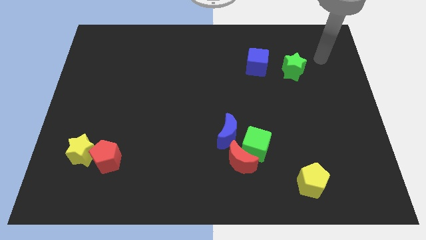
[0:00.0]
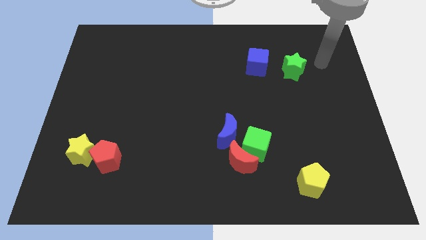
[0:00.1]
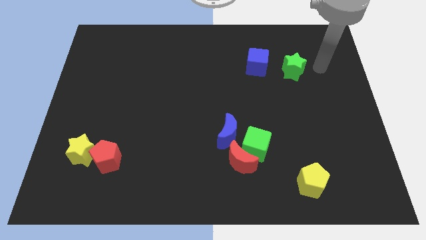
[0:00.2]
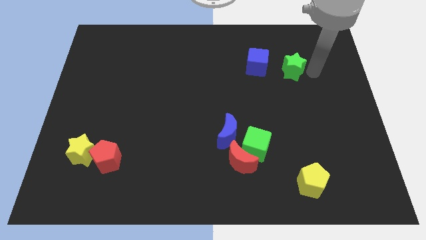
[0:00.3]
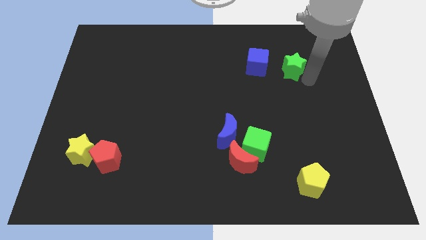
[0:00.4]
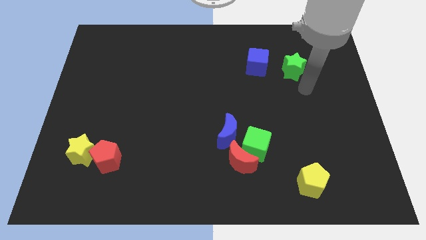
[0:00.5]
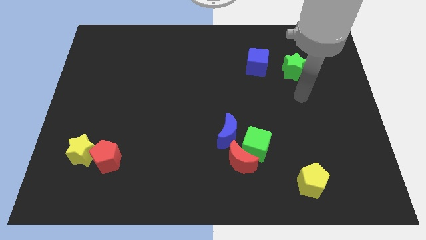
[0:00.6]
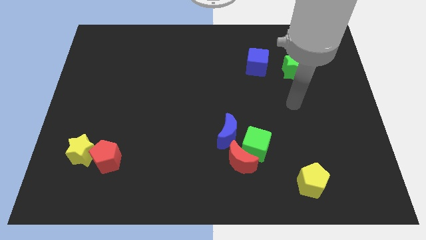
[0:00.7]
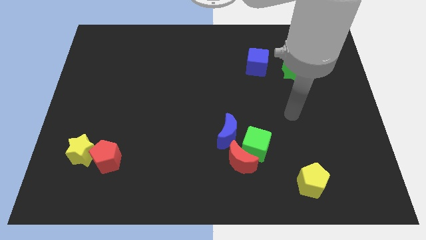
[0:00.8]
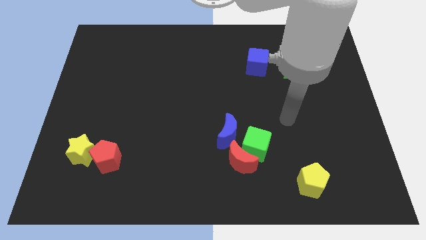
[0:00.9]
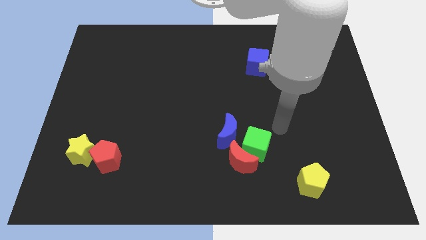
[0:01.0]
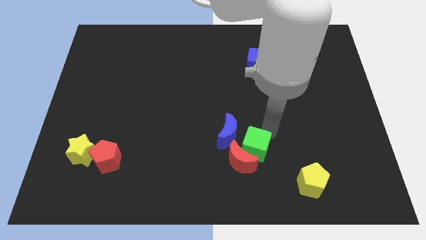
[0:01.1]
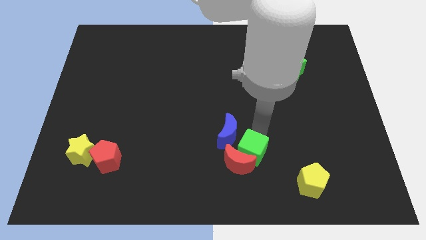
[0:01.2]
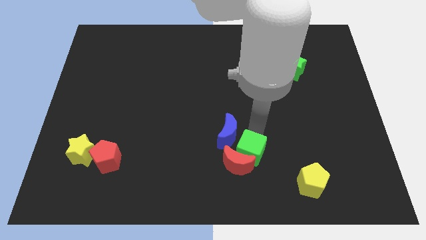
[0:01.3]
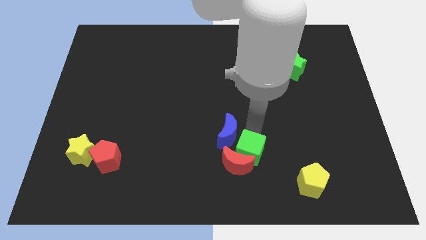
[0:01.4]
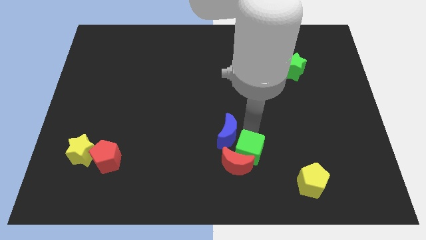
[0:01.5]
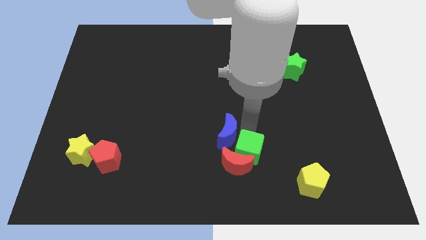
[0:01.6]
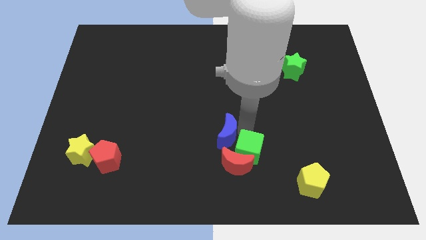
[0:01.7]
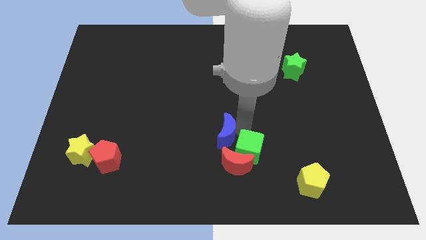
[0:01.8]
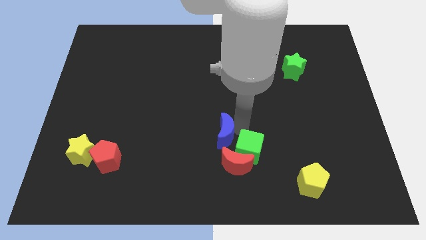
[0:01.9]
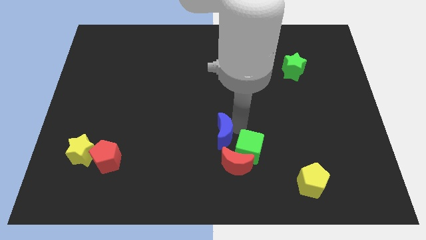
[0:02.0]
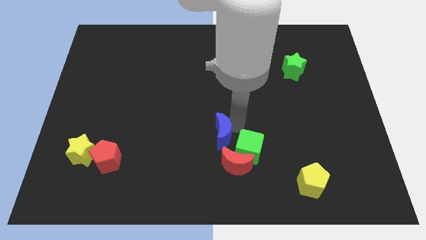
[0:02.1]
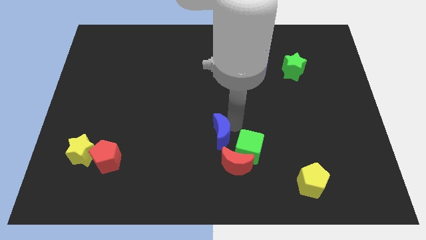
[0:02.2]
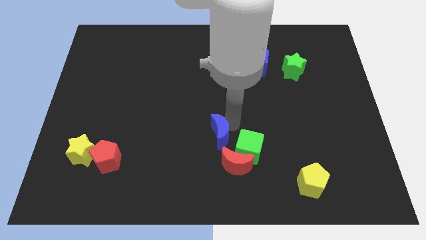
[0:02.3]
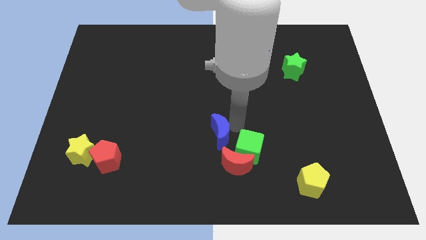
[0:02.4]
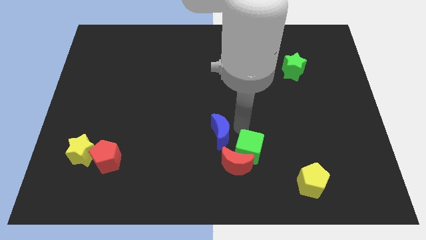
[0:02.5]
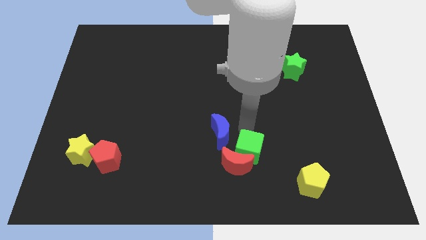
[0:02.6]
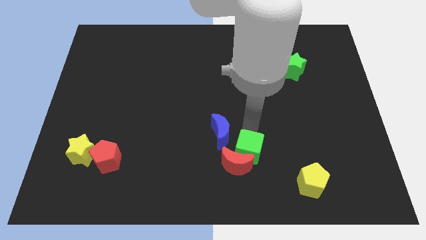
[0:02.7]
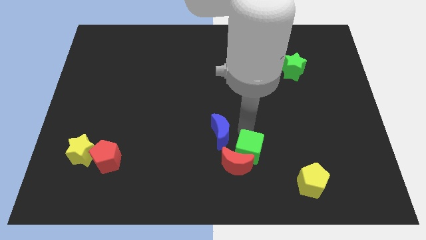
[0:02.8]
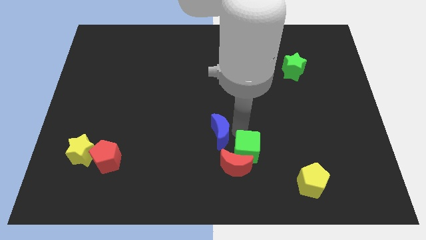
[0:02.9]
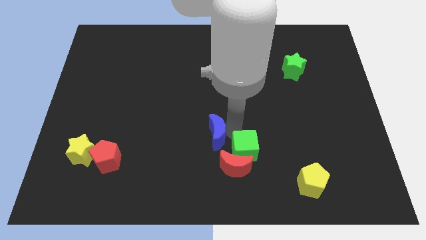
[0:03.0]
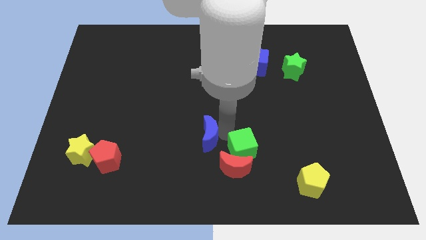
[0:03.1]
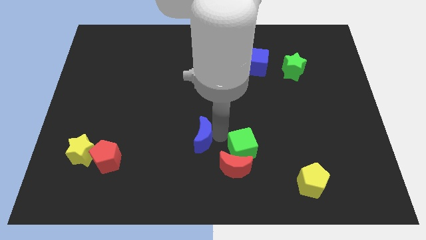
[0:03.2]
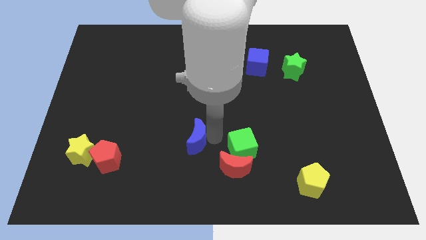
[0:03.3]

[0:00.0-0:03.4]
push the blue moon to the left a little

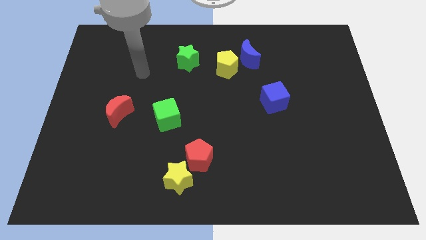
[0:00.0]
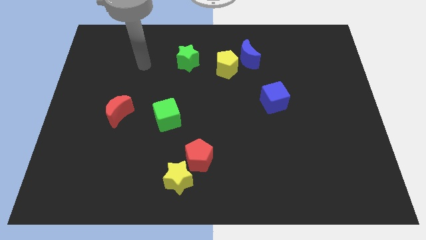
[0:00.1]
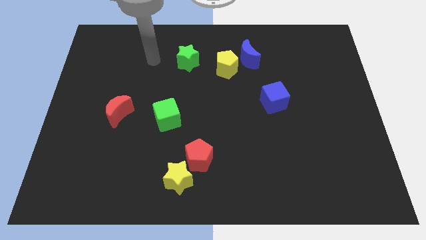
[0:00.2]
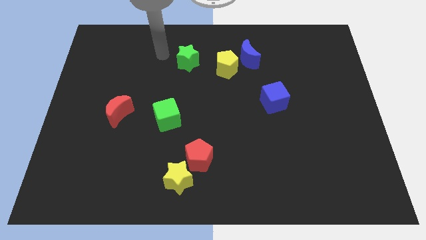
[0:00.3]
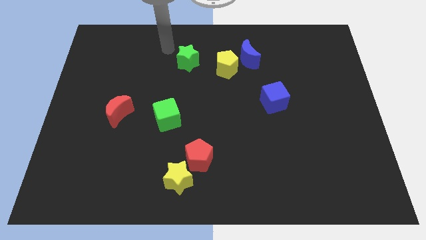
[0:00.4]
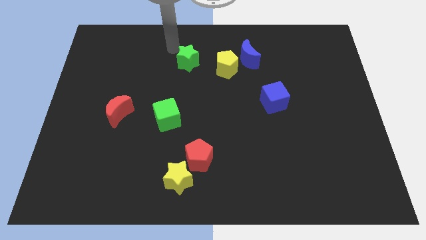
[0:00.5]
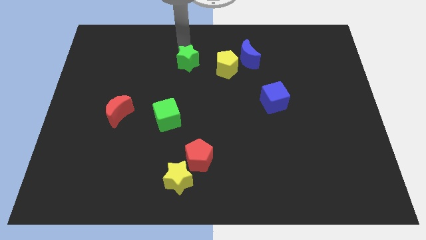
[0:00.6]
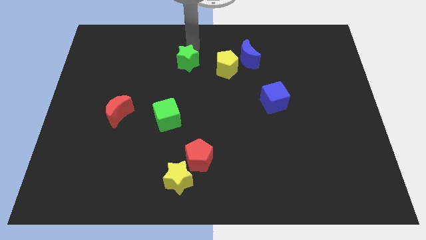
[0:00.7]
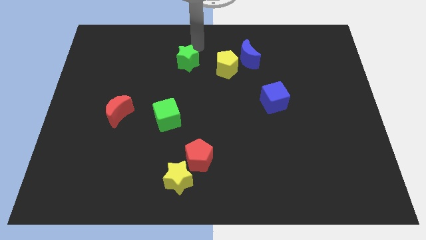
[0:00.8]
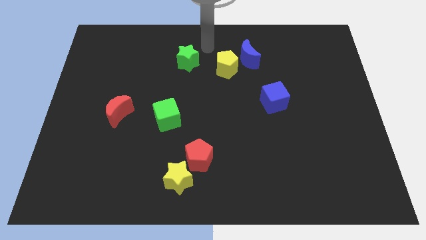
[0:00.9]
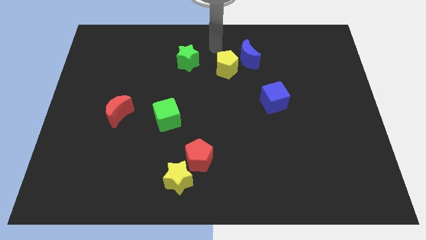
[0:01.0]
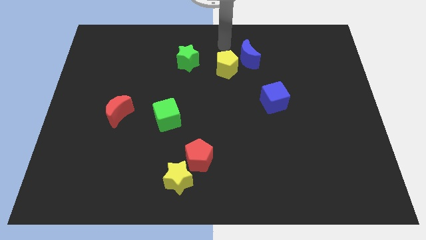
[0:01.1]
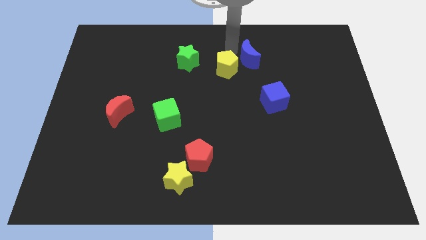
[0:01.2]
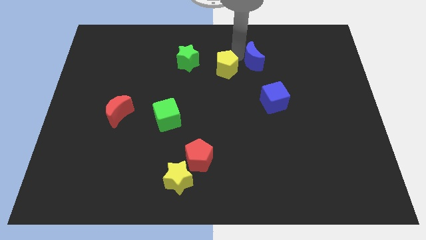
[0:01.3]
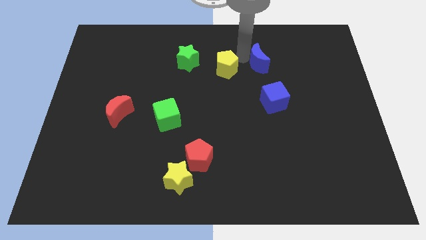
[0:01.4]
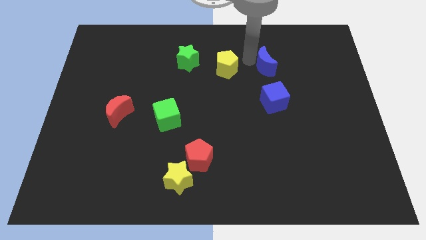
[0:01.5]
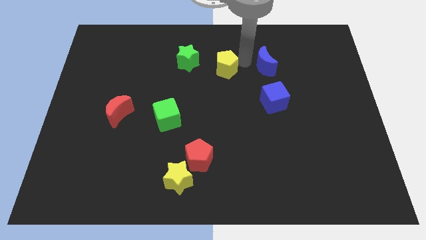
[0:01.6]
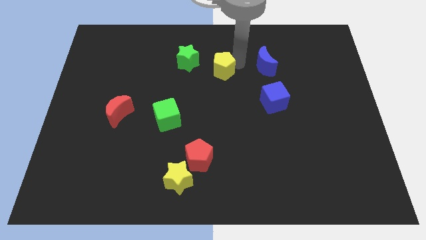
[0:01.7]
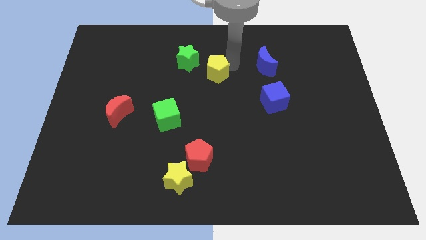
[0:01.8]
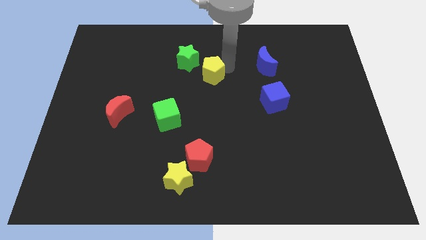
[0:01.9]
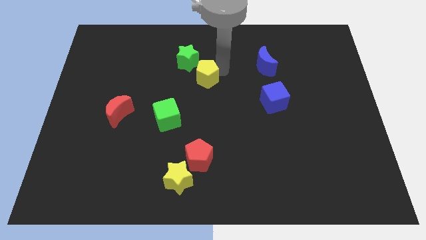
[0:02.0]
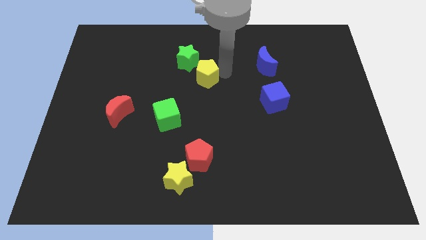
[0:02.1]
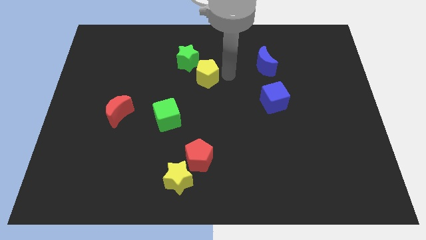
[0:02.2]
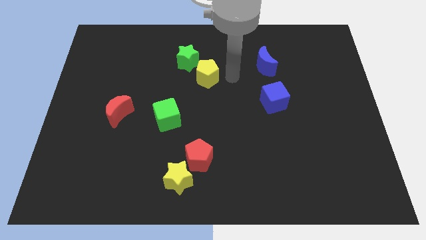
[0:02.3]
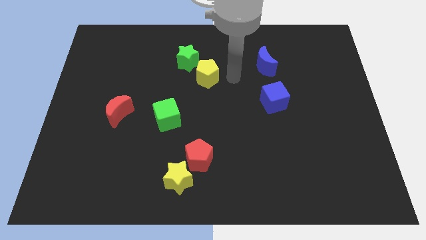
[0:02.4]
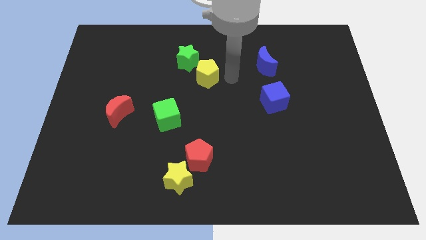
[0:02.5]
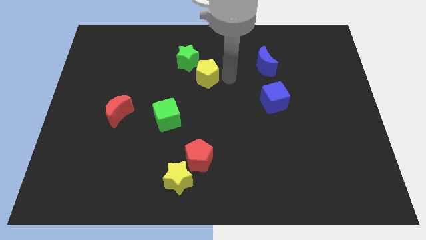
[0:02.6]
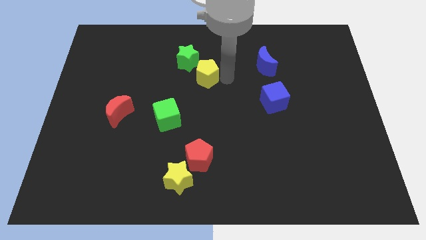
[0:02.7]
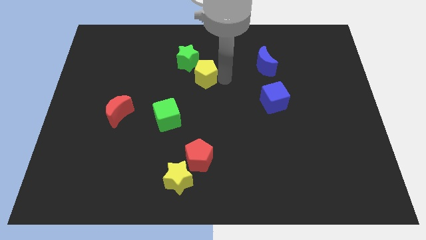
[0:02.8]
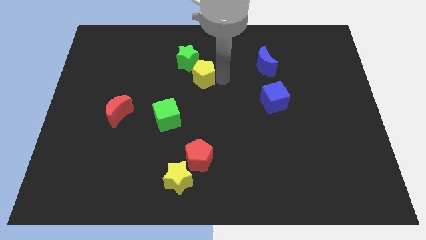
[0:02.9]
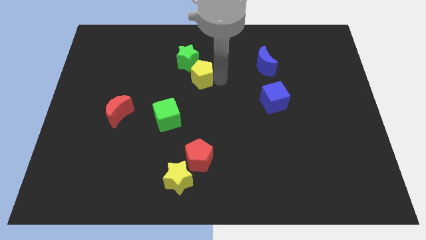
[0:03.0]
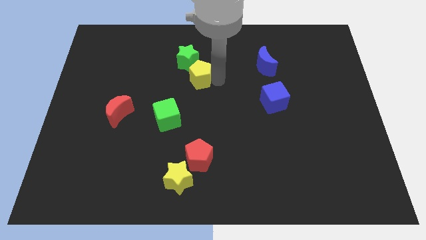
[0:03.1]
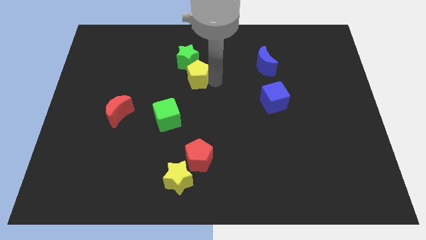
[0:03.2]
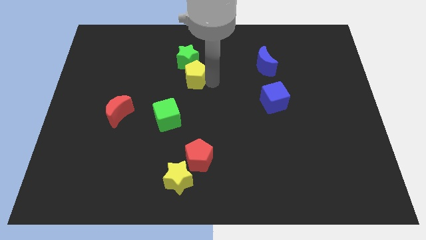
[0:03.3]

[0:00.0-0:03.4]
slightly slide the yellow pentagon to the left

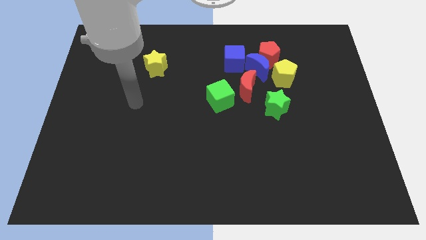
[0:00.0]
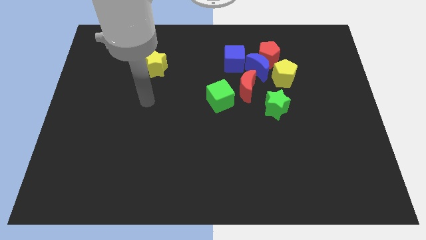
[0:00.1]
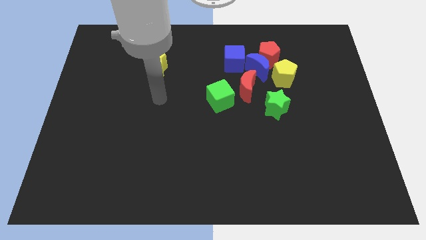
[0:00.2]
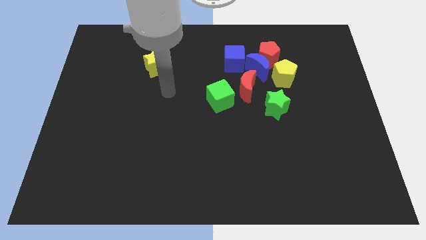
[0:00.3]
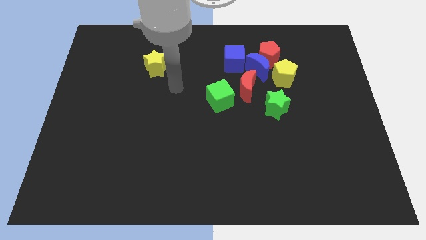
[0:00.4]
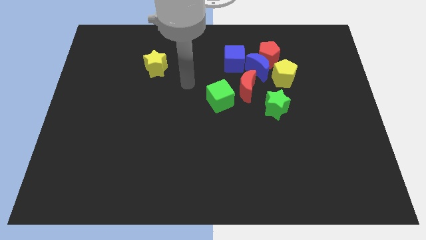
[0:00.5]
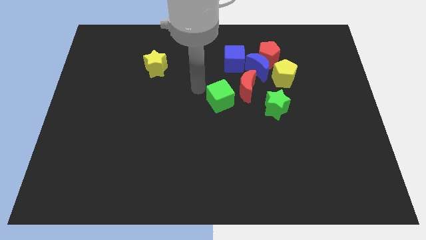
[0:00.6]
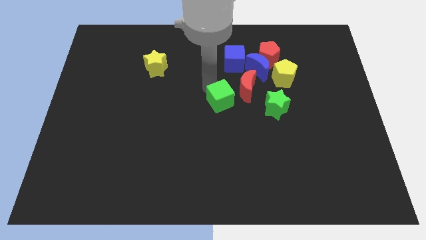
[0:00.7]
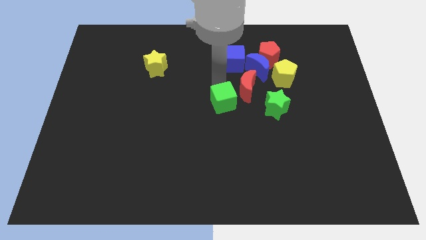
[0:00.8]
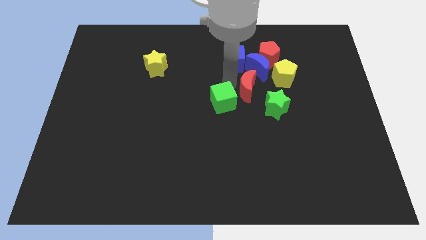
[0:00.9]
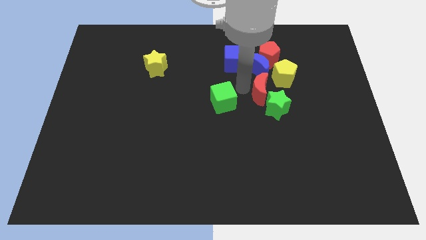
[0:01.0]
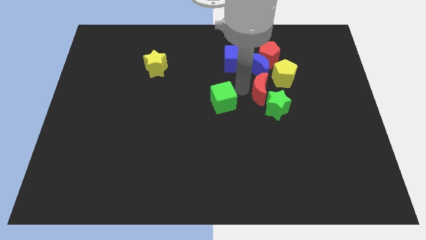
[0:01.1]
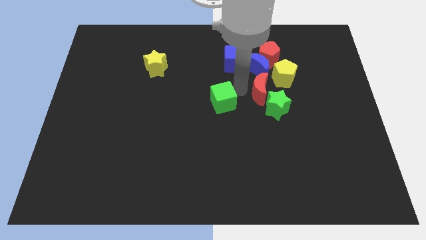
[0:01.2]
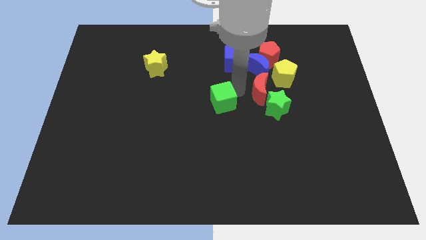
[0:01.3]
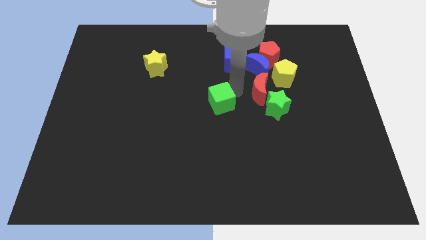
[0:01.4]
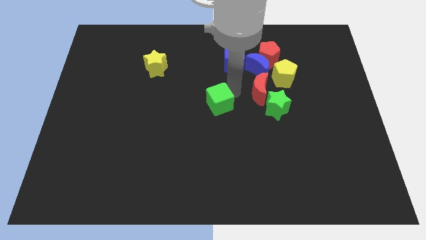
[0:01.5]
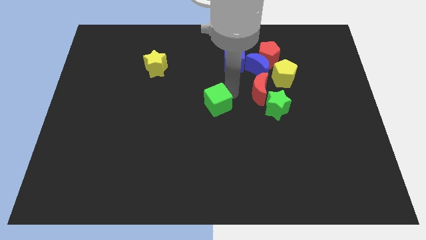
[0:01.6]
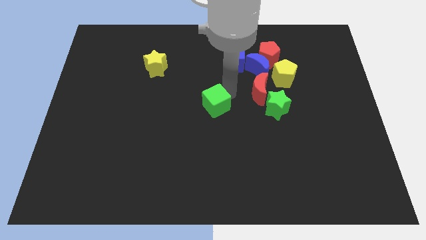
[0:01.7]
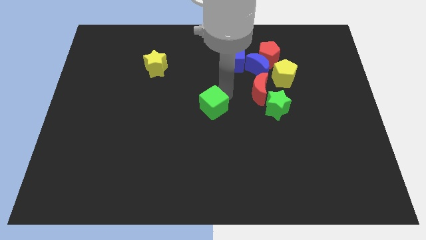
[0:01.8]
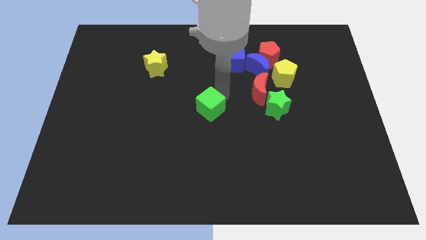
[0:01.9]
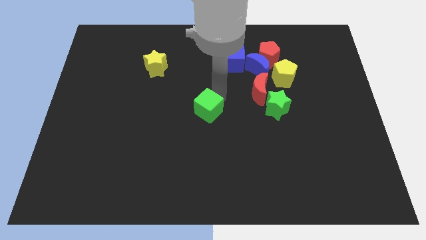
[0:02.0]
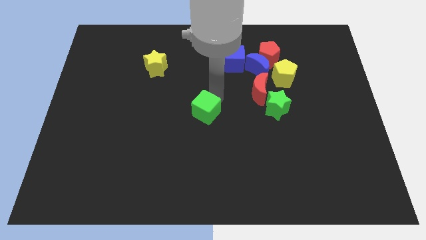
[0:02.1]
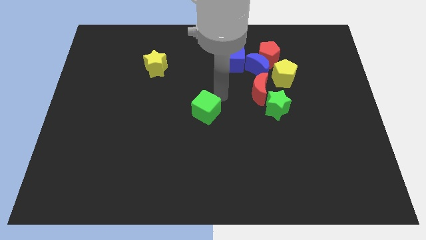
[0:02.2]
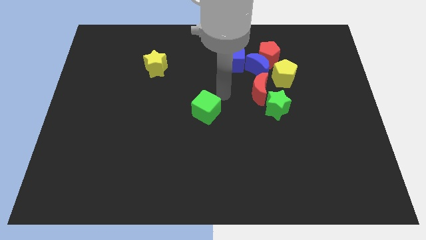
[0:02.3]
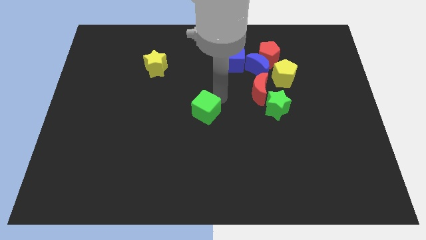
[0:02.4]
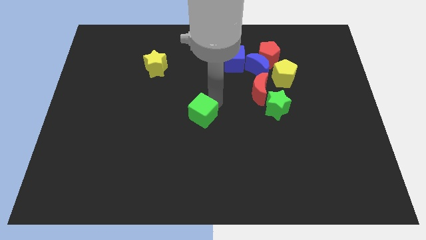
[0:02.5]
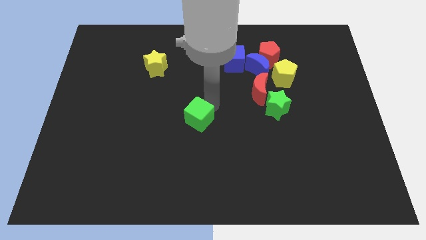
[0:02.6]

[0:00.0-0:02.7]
slightly push the green cube downwards and then to the left
